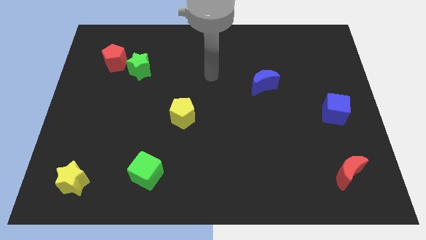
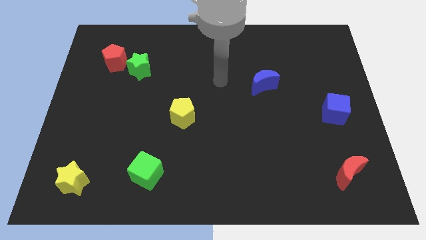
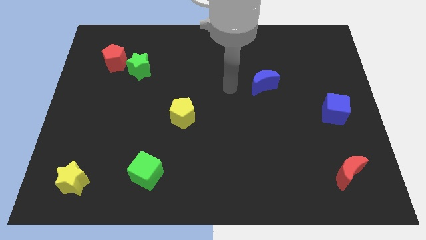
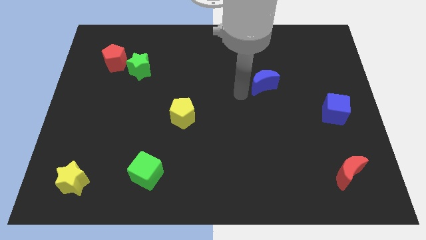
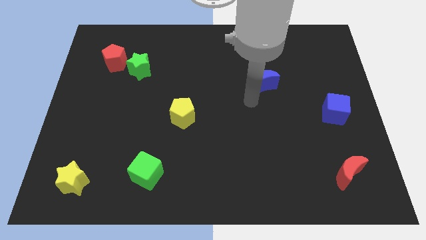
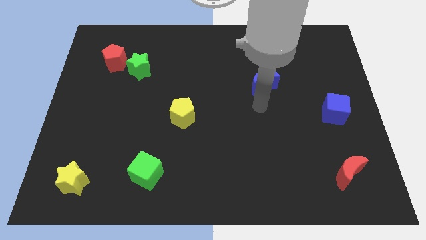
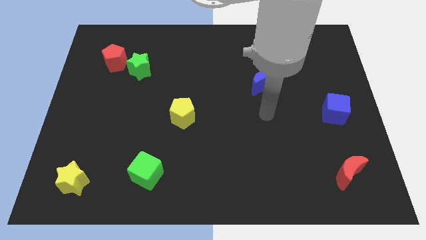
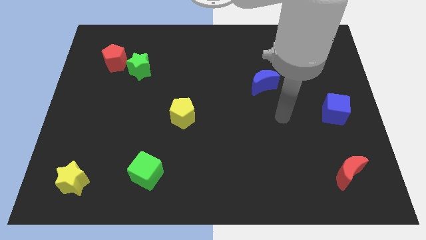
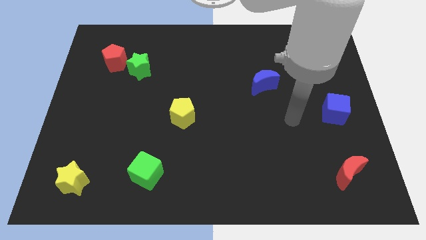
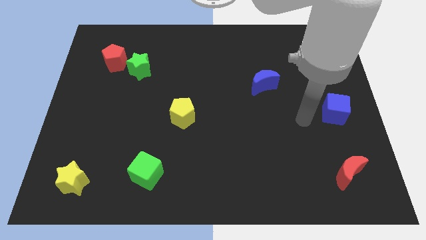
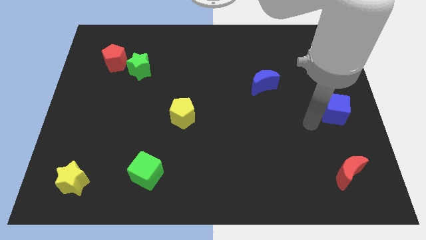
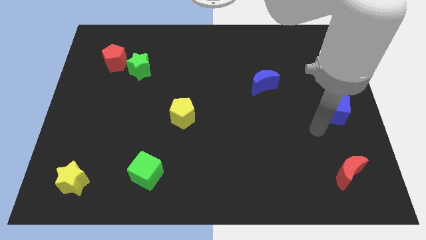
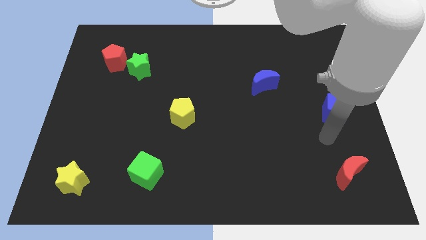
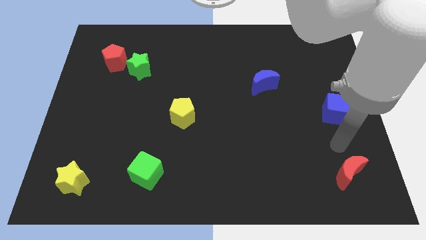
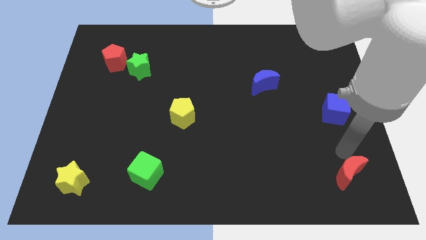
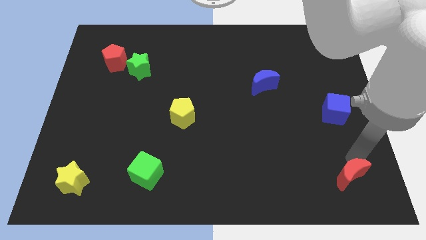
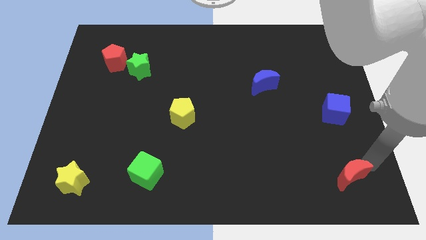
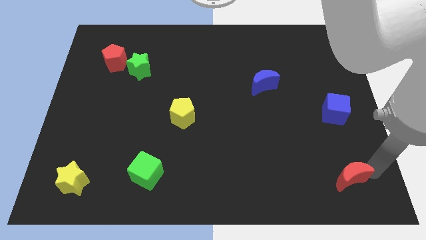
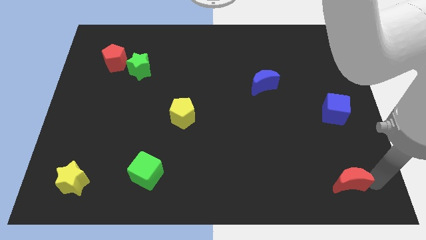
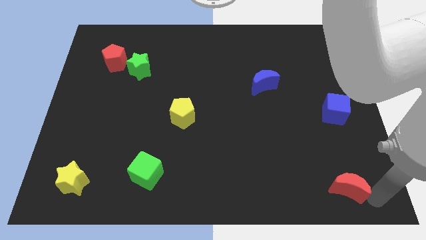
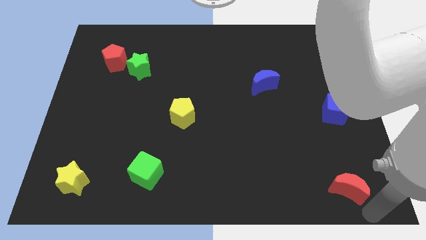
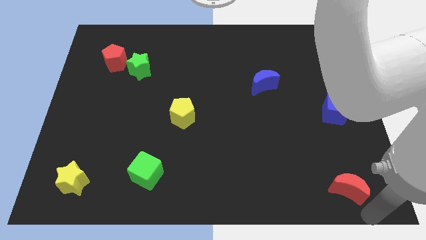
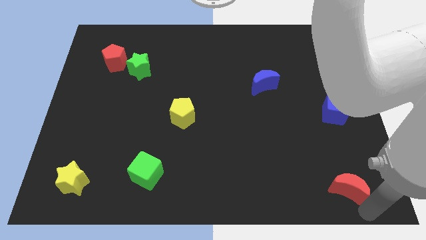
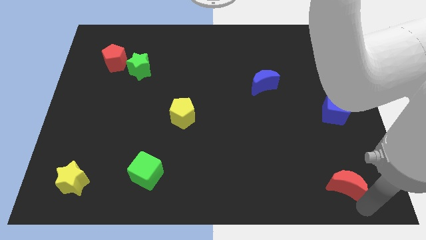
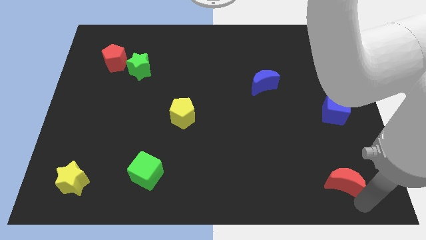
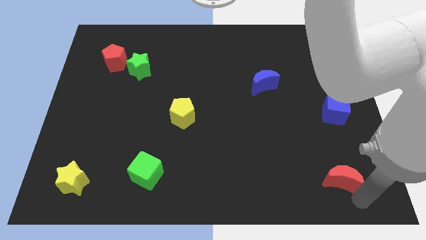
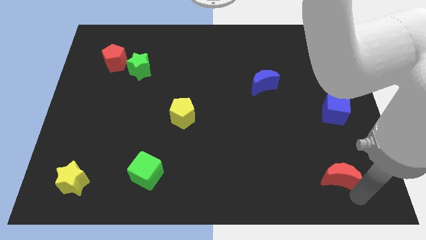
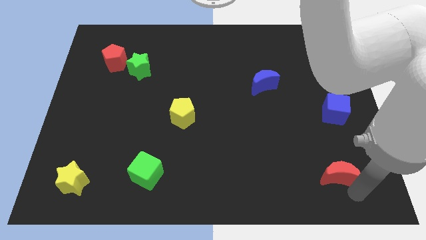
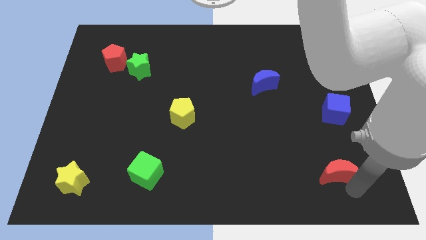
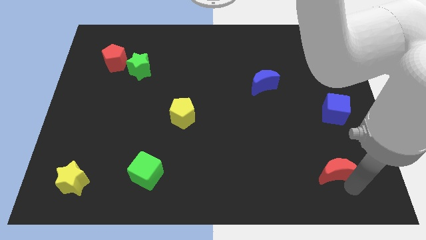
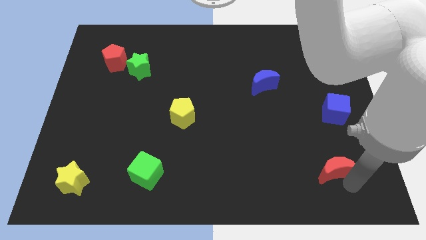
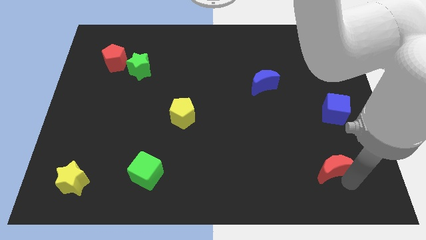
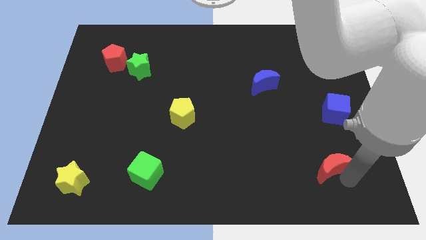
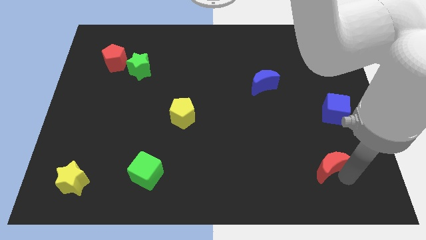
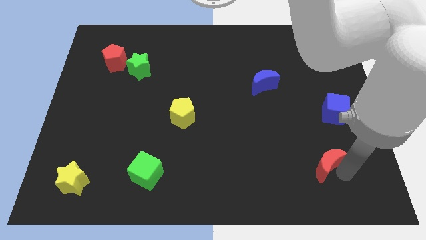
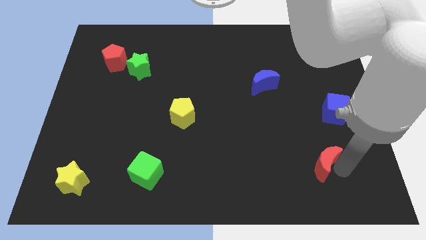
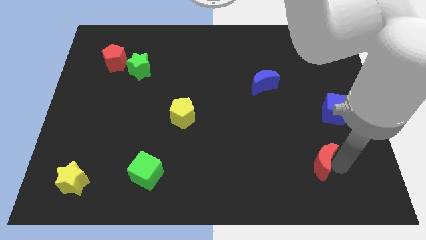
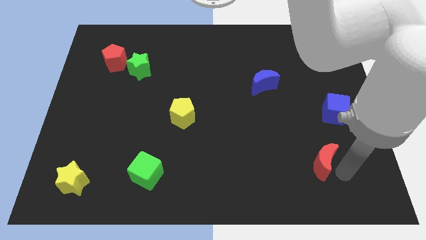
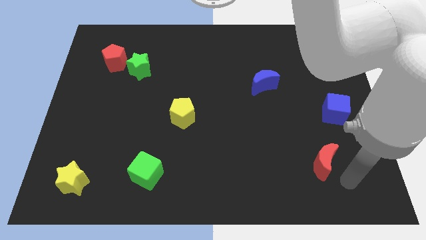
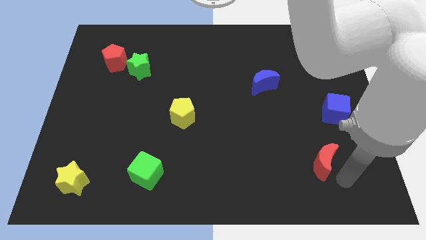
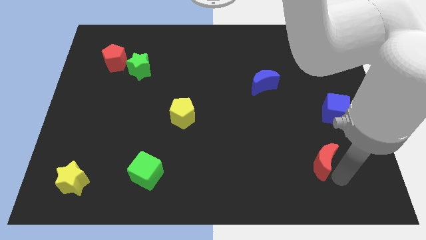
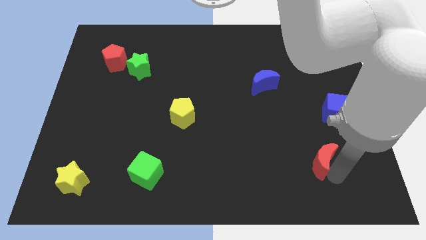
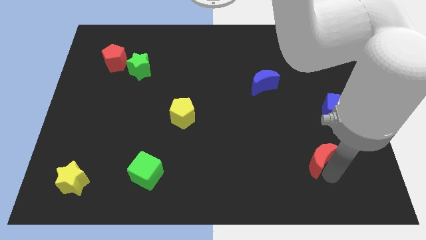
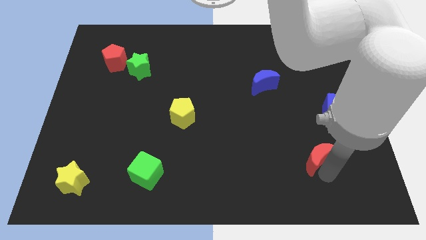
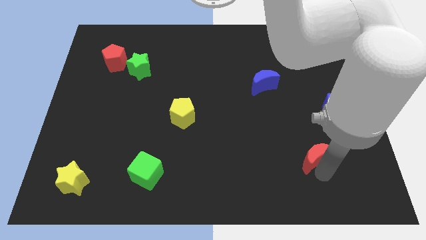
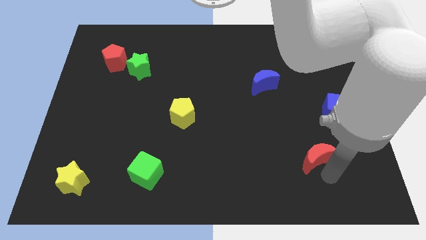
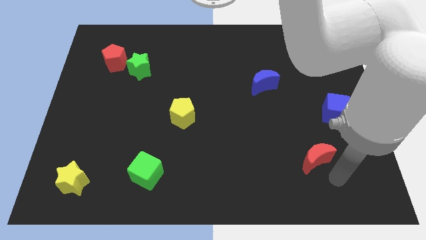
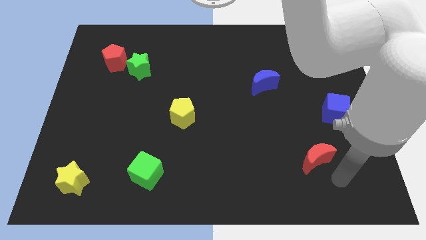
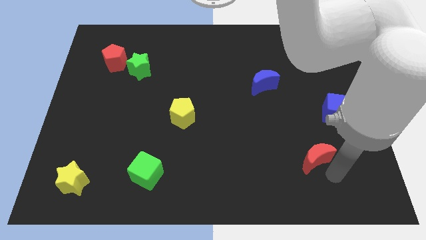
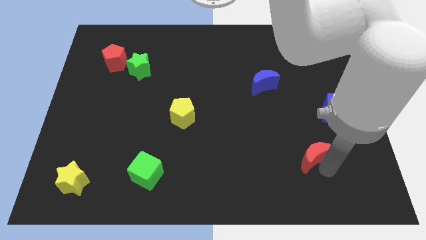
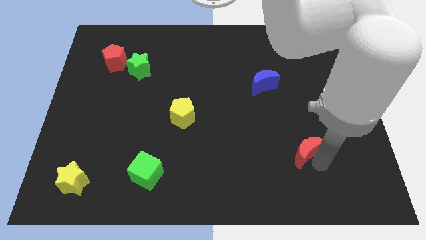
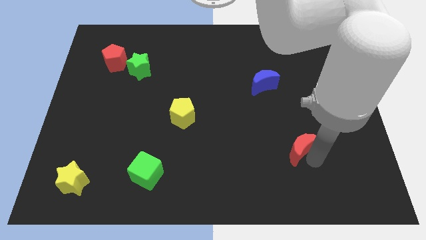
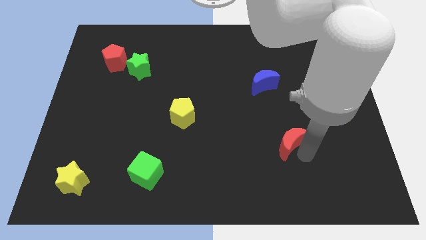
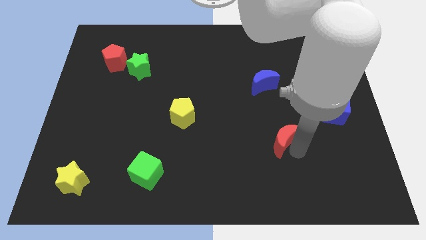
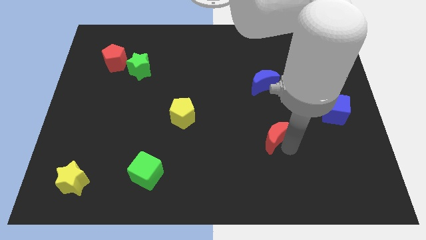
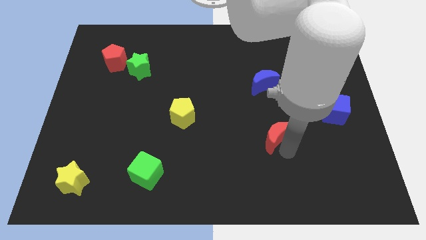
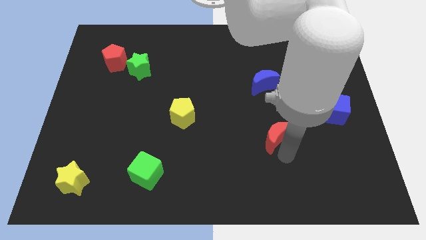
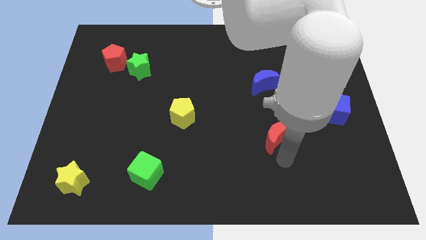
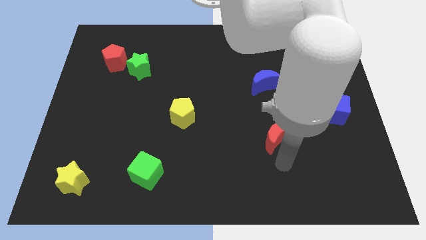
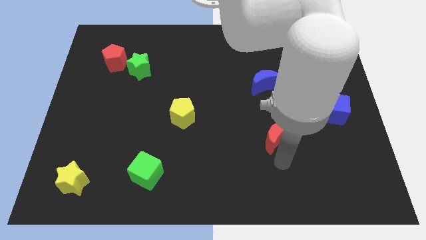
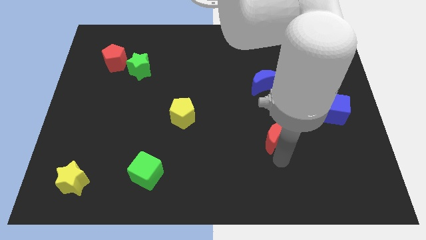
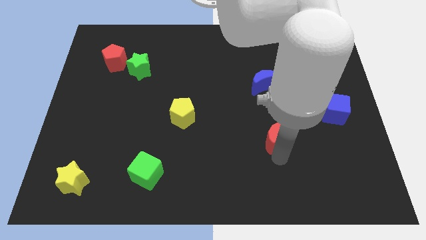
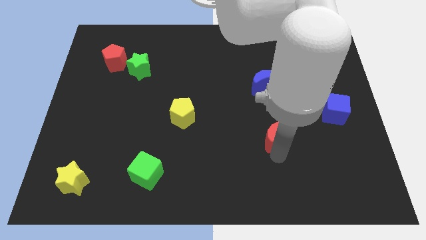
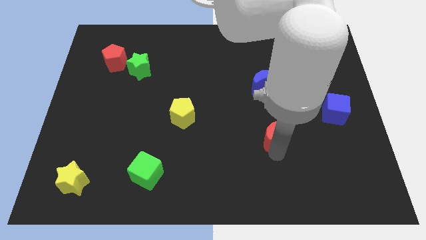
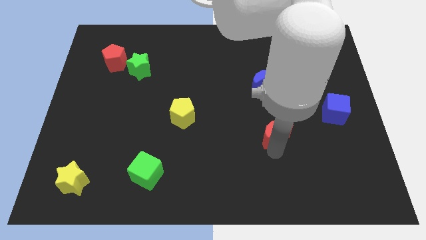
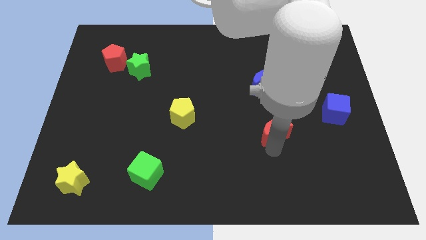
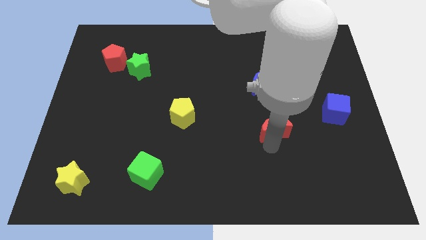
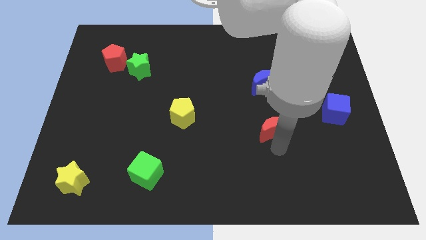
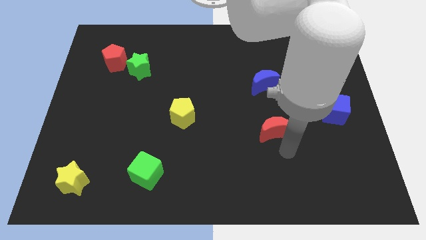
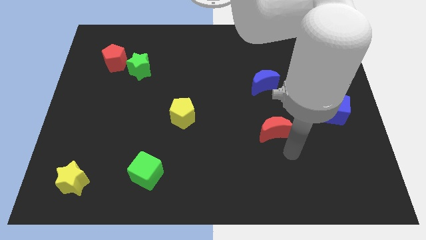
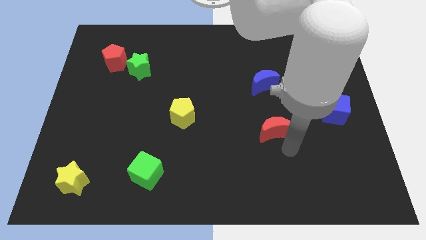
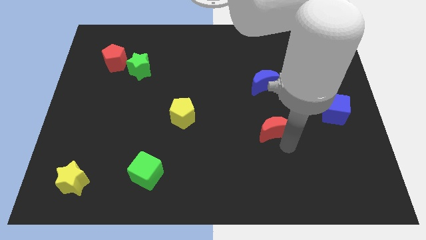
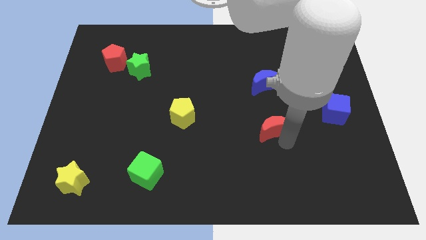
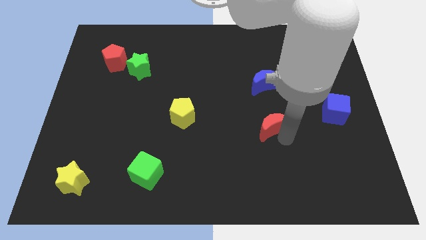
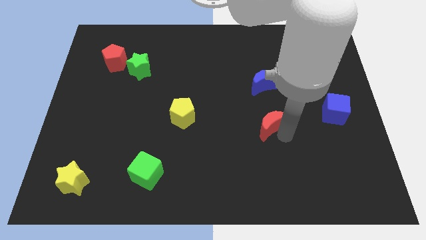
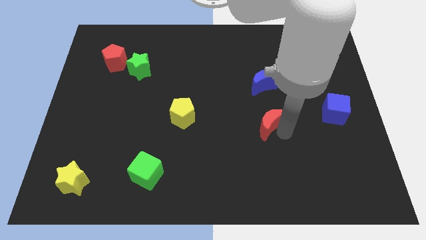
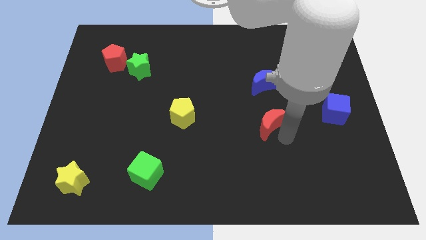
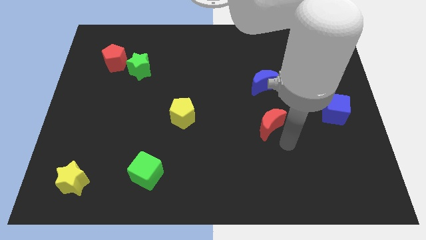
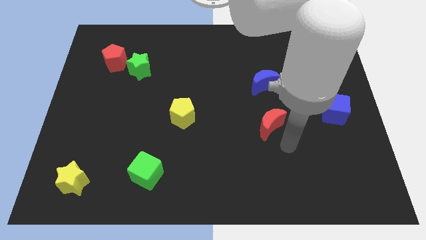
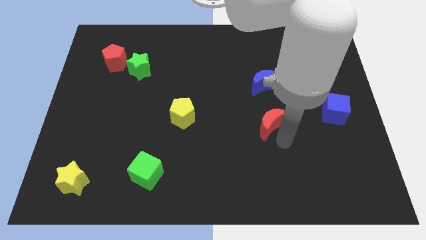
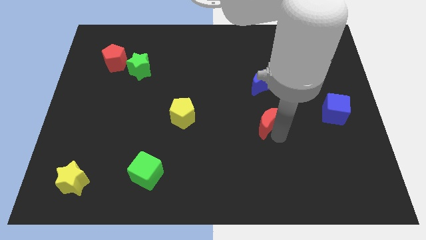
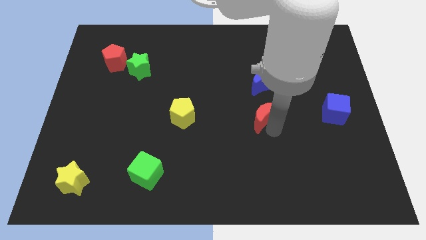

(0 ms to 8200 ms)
push the red moon up and to the left diagonally

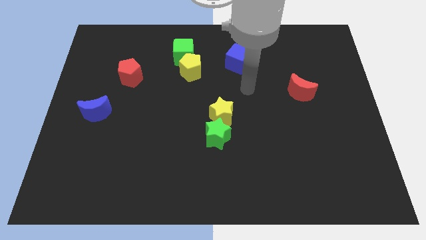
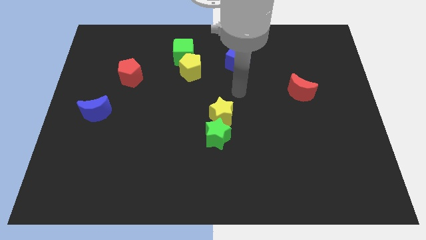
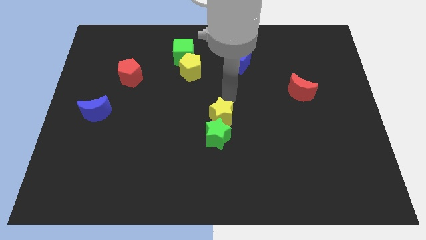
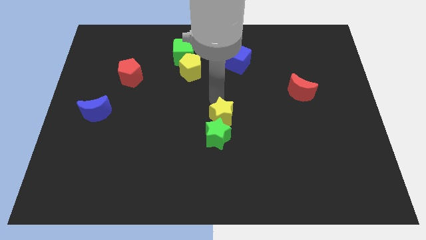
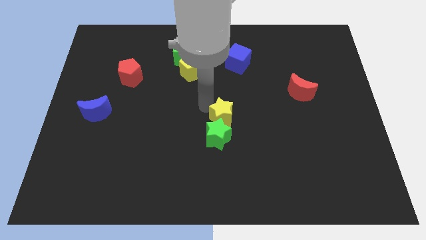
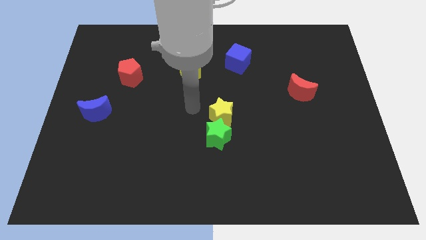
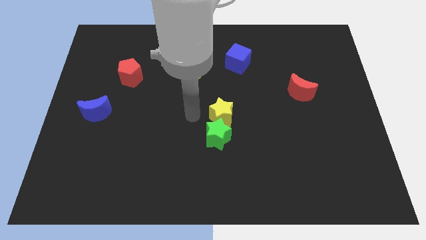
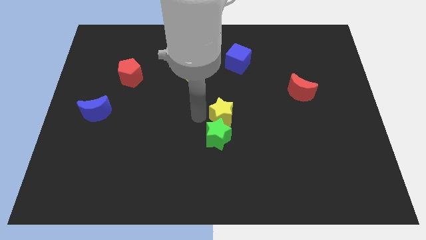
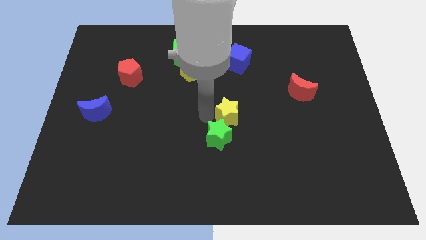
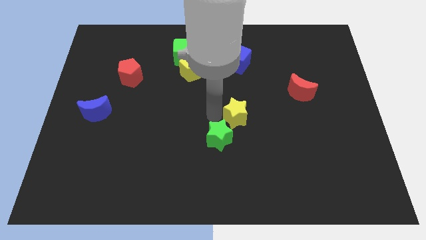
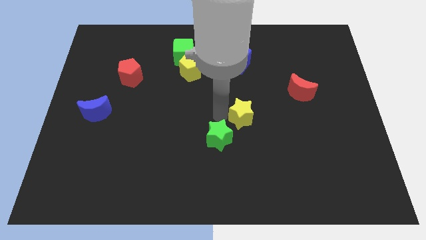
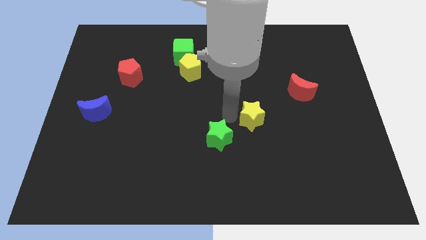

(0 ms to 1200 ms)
slightly move the yellow star right
